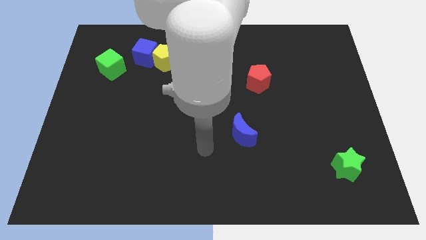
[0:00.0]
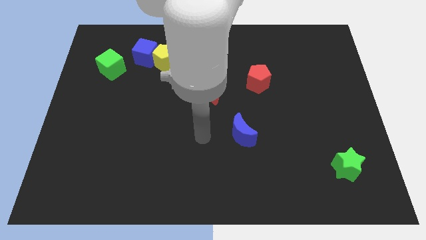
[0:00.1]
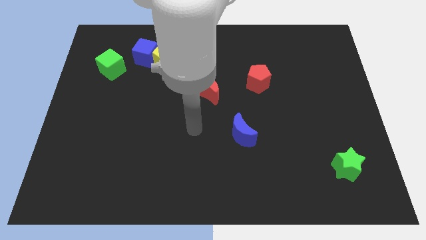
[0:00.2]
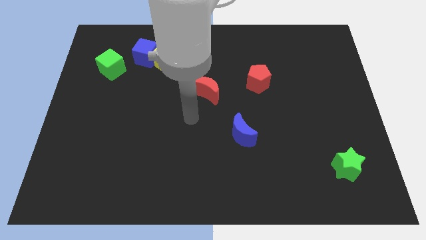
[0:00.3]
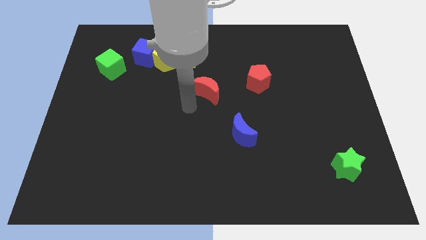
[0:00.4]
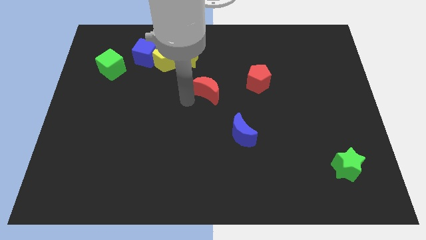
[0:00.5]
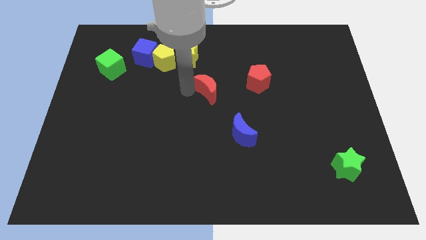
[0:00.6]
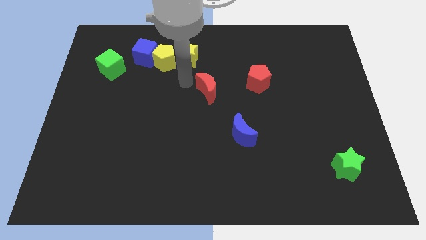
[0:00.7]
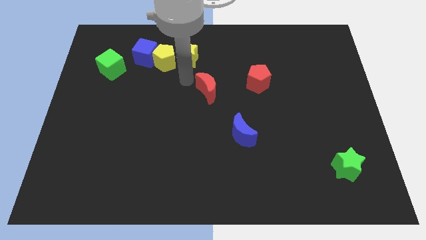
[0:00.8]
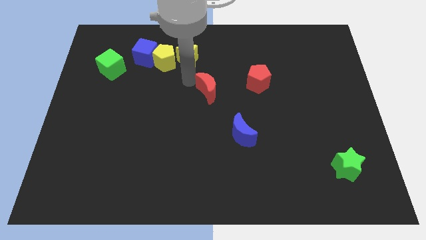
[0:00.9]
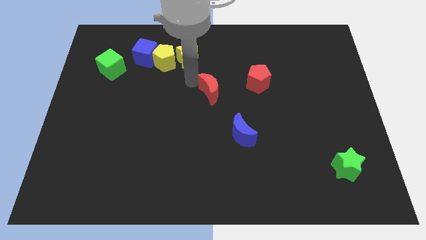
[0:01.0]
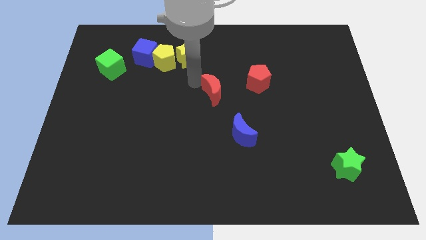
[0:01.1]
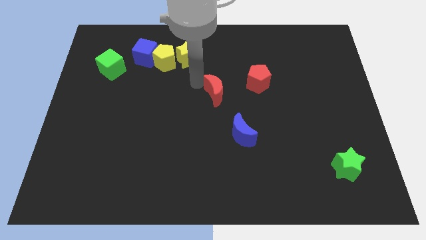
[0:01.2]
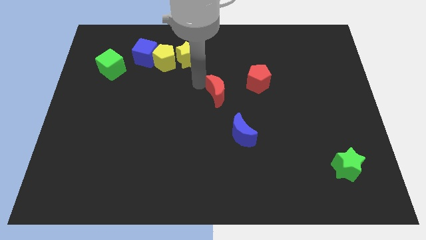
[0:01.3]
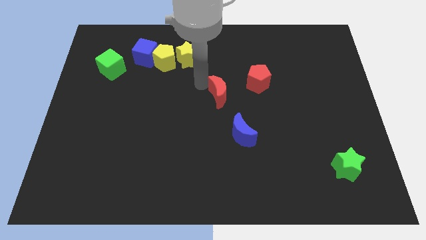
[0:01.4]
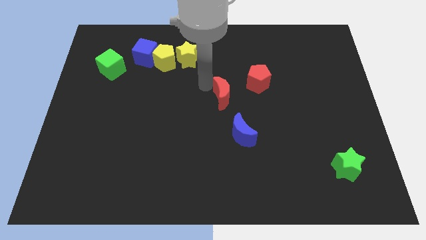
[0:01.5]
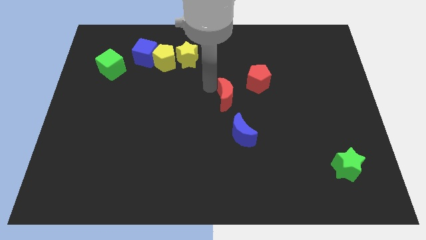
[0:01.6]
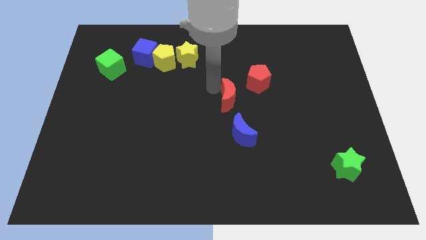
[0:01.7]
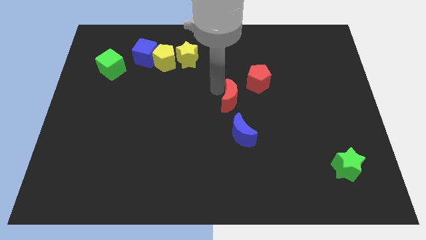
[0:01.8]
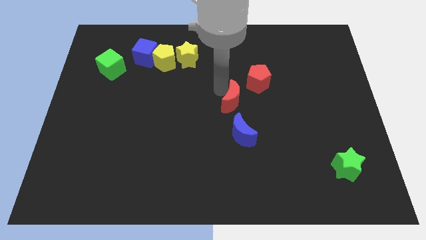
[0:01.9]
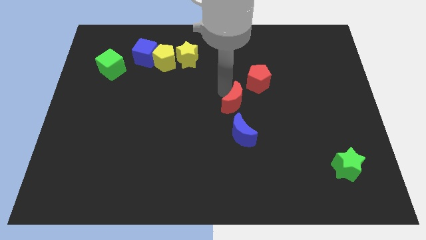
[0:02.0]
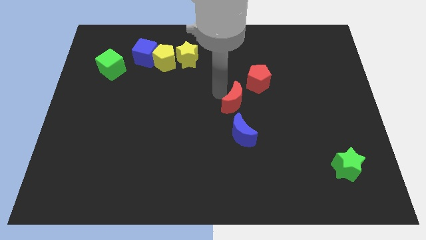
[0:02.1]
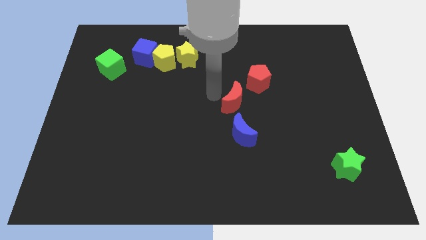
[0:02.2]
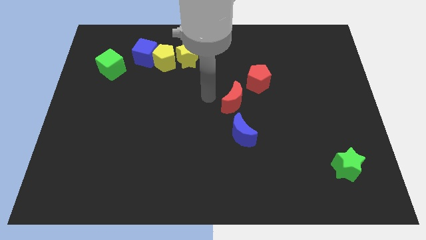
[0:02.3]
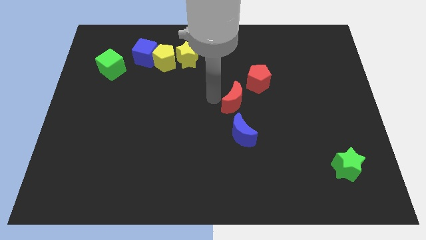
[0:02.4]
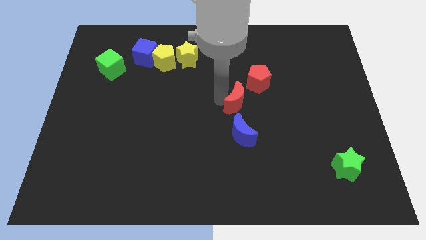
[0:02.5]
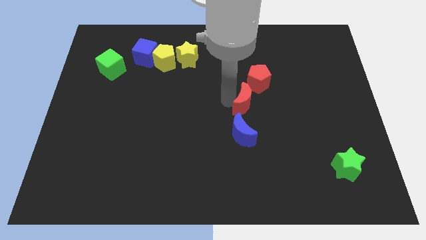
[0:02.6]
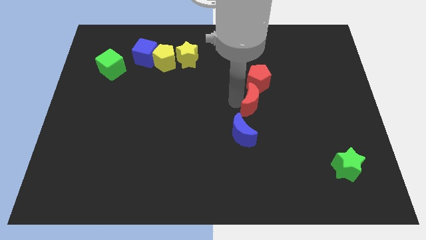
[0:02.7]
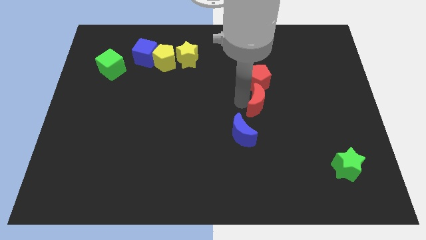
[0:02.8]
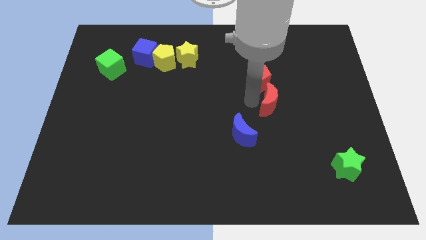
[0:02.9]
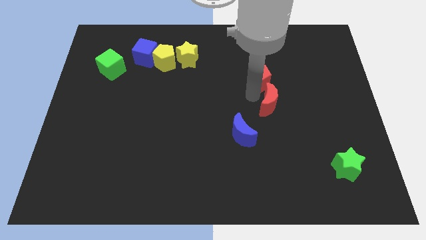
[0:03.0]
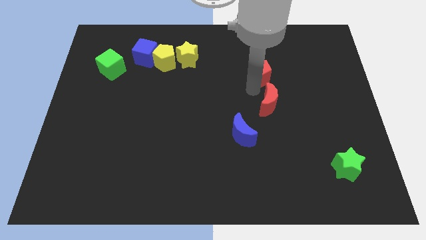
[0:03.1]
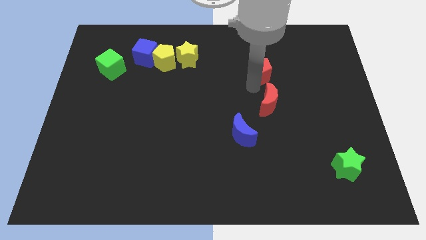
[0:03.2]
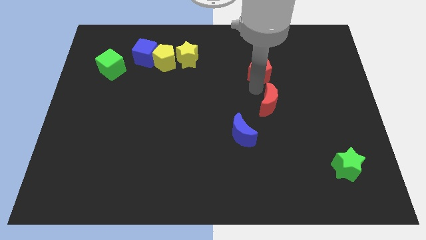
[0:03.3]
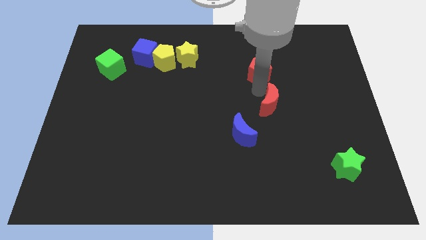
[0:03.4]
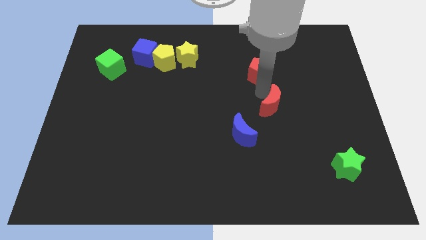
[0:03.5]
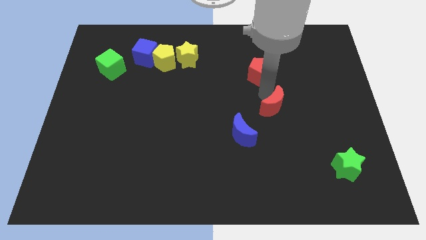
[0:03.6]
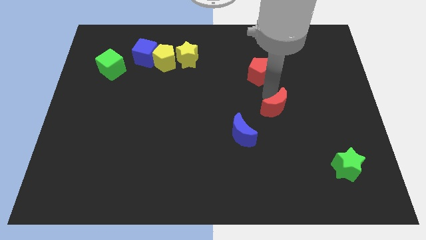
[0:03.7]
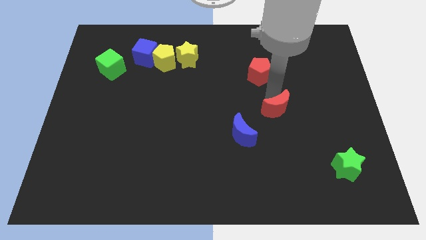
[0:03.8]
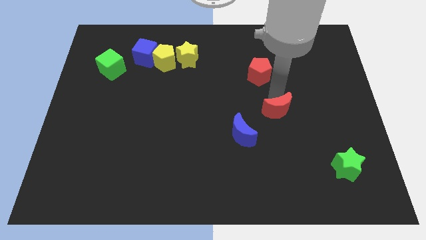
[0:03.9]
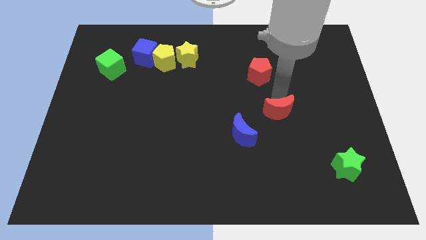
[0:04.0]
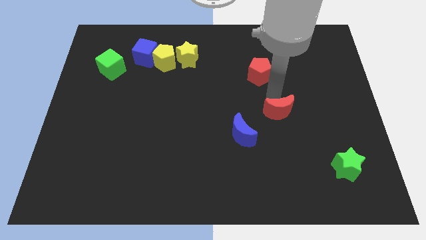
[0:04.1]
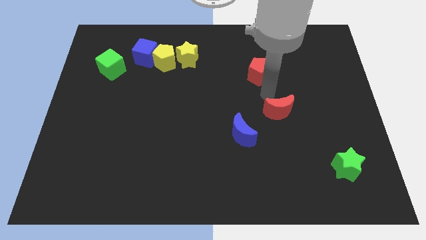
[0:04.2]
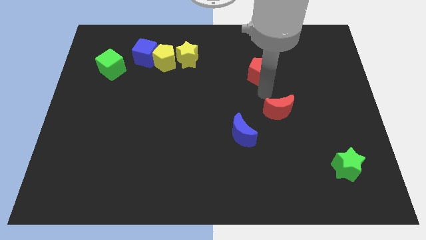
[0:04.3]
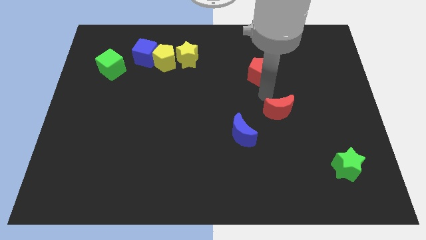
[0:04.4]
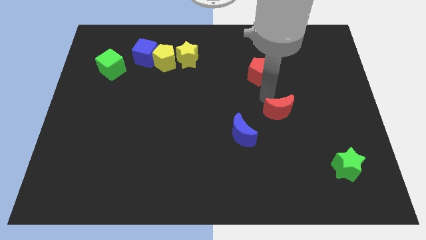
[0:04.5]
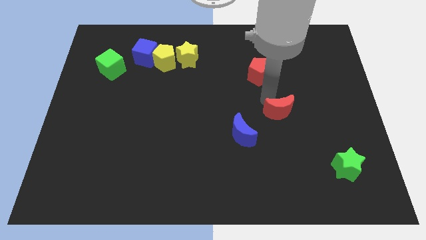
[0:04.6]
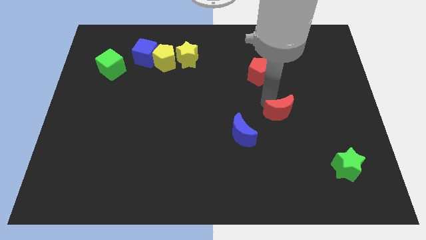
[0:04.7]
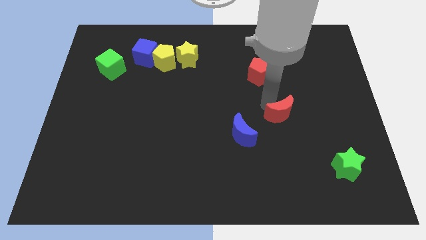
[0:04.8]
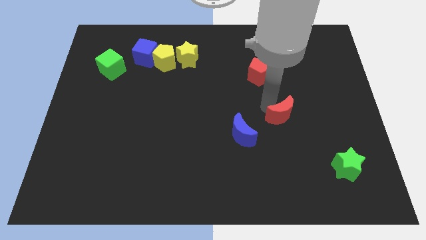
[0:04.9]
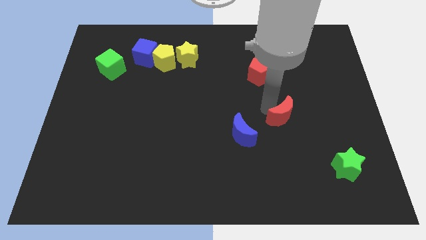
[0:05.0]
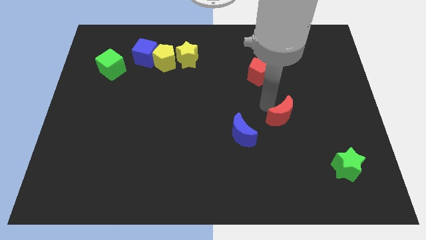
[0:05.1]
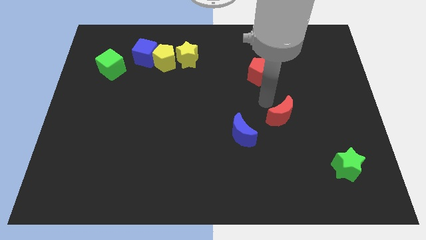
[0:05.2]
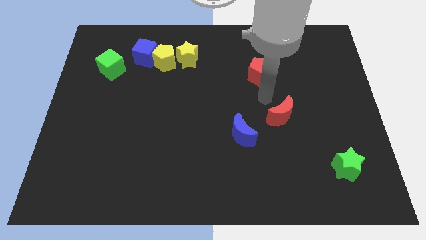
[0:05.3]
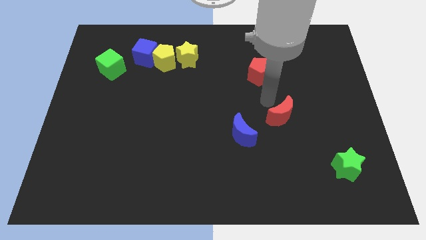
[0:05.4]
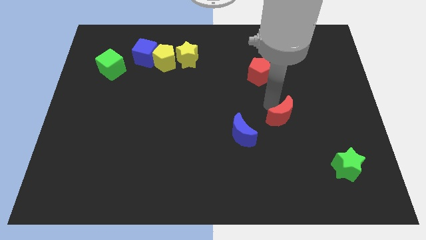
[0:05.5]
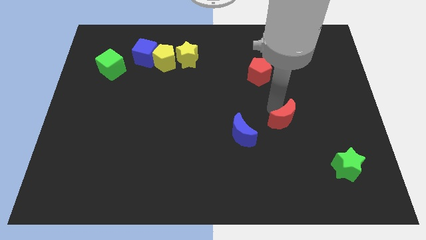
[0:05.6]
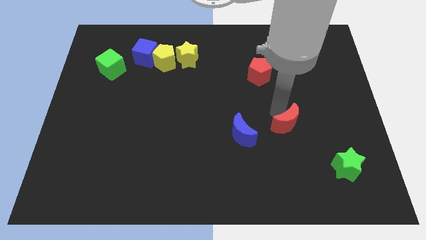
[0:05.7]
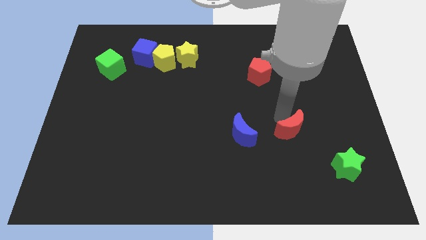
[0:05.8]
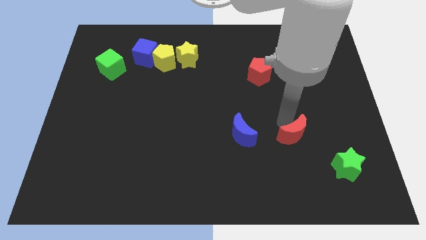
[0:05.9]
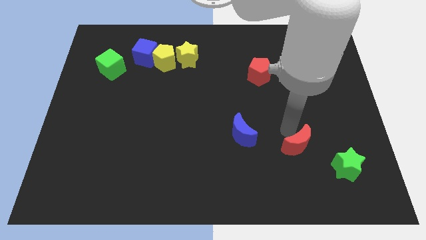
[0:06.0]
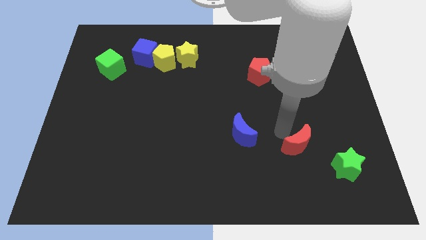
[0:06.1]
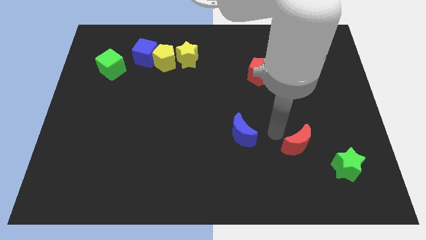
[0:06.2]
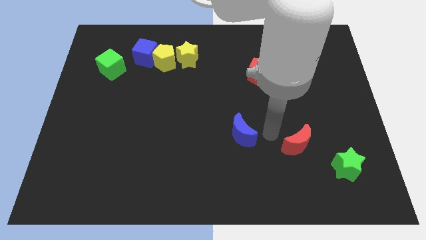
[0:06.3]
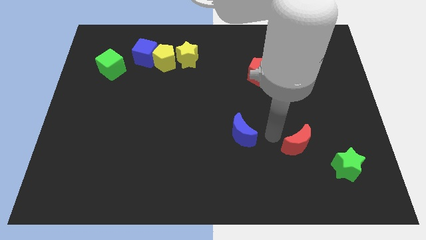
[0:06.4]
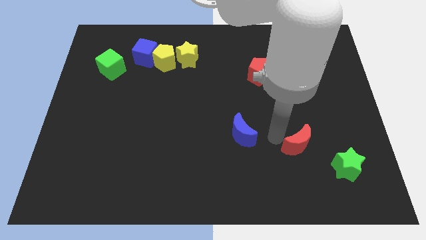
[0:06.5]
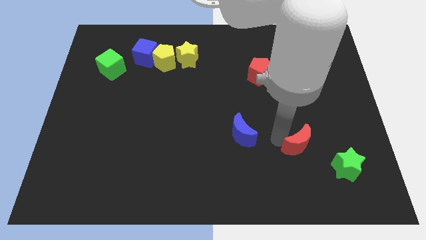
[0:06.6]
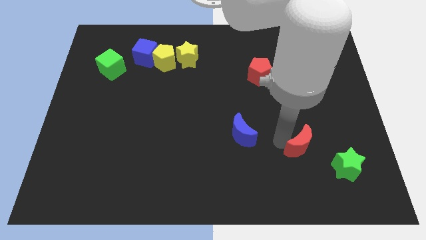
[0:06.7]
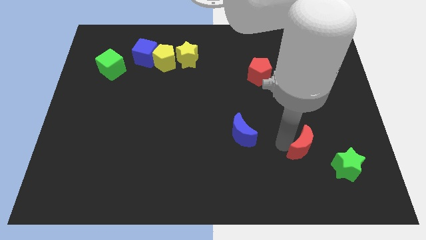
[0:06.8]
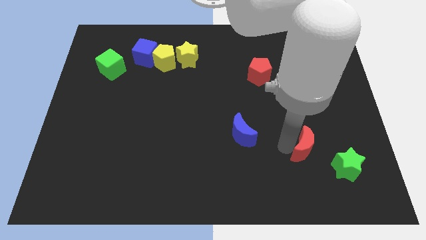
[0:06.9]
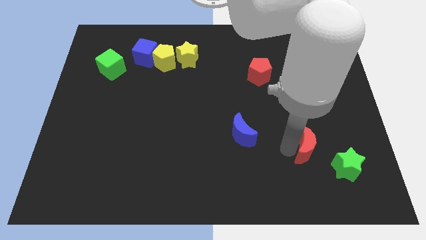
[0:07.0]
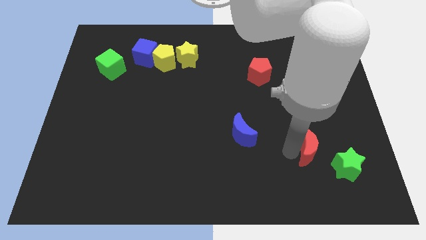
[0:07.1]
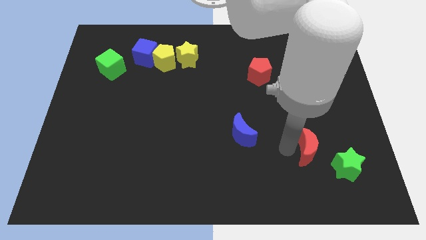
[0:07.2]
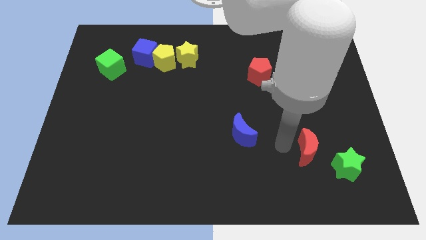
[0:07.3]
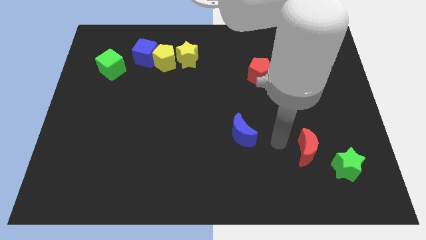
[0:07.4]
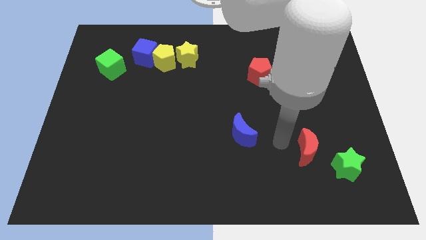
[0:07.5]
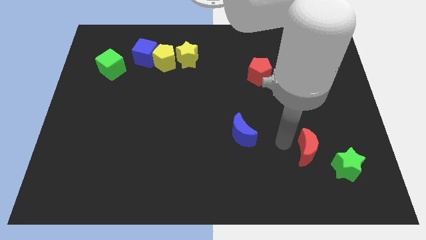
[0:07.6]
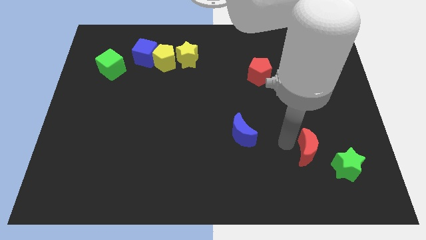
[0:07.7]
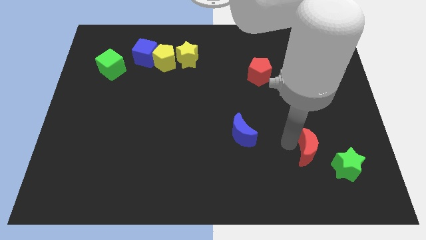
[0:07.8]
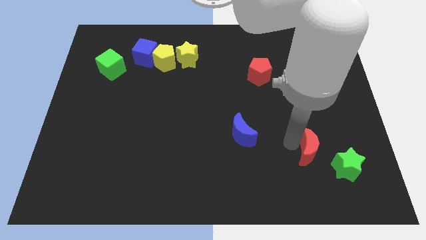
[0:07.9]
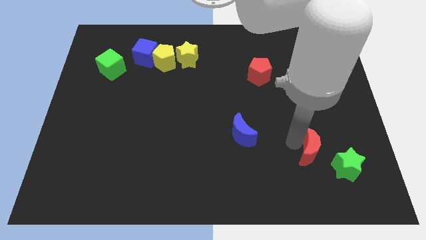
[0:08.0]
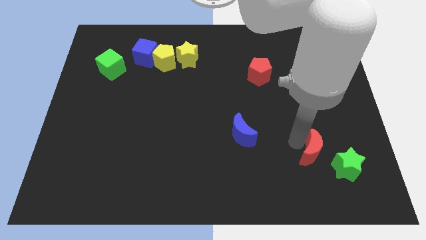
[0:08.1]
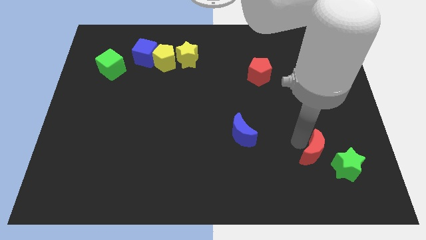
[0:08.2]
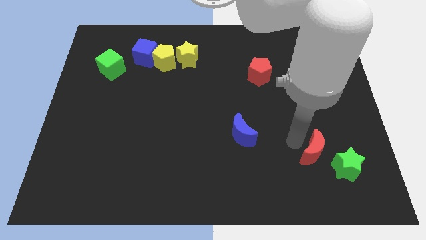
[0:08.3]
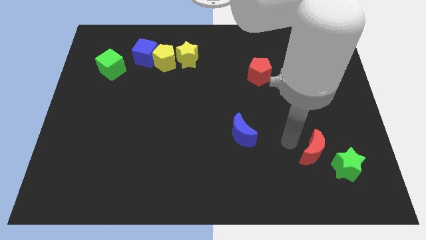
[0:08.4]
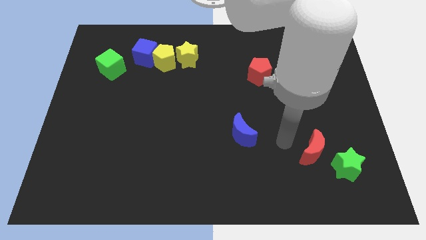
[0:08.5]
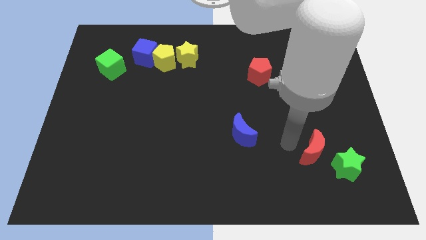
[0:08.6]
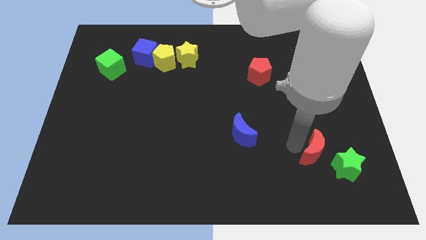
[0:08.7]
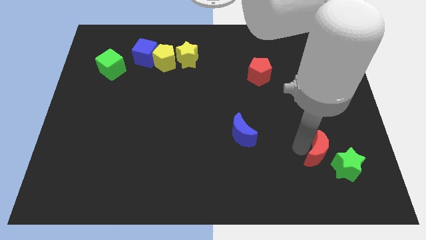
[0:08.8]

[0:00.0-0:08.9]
slide the red moon to the green star
